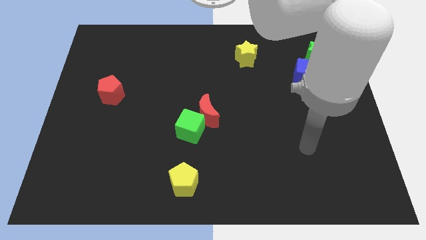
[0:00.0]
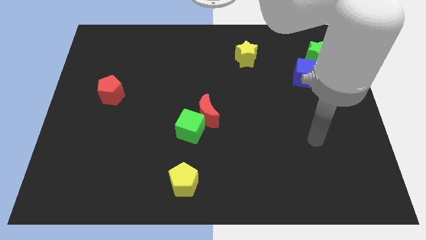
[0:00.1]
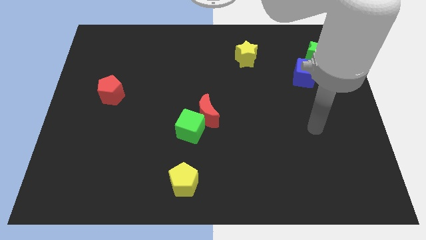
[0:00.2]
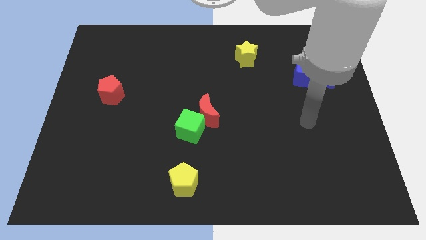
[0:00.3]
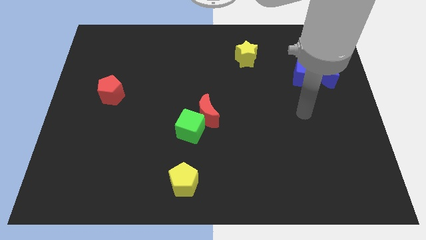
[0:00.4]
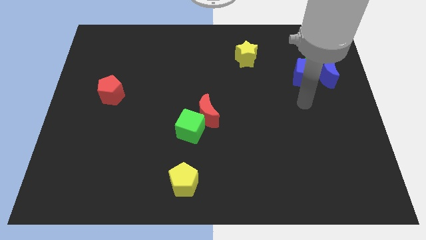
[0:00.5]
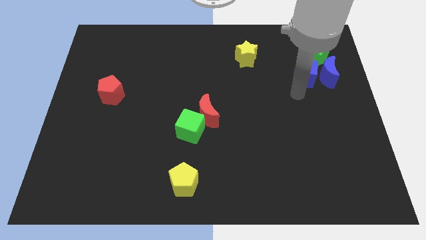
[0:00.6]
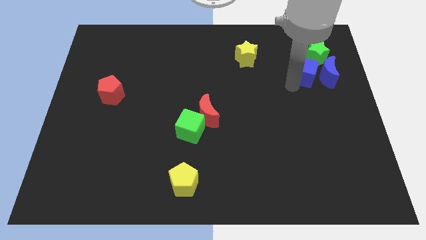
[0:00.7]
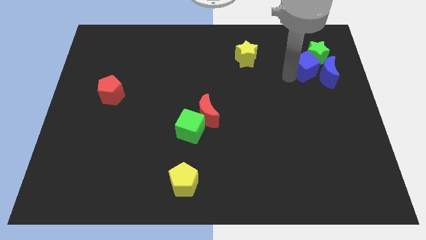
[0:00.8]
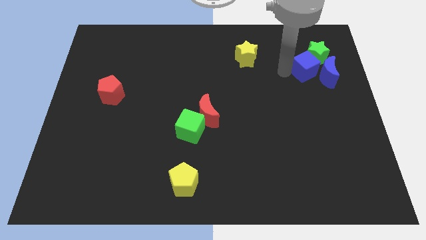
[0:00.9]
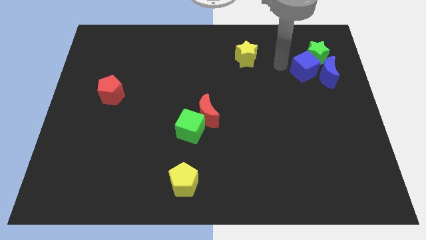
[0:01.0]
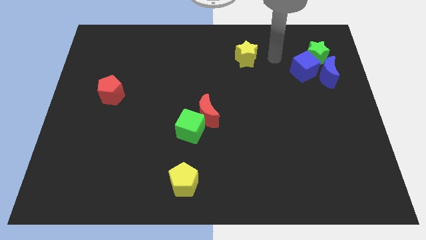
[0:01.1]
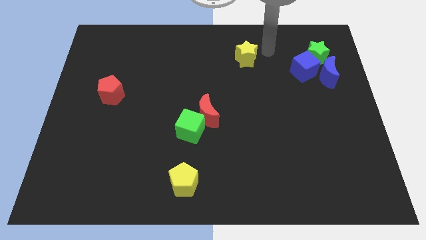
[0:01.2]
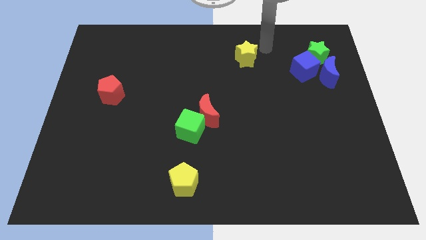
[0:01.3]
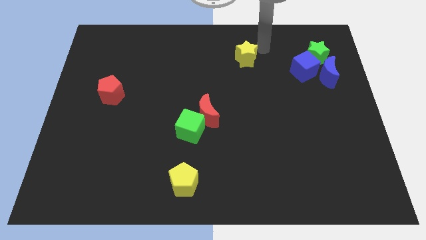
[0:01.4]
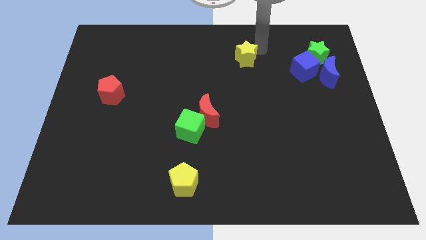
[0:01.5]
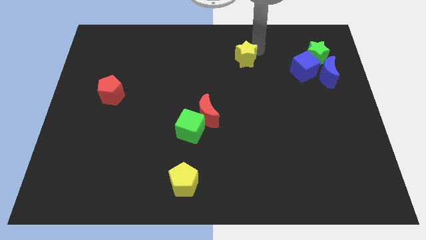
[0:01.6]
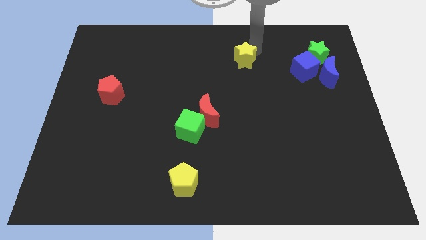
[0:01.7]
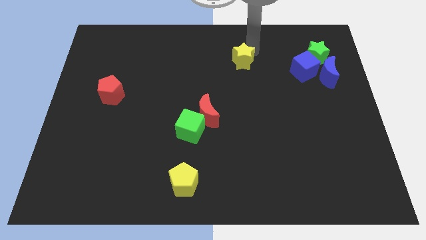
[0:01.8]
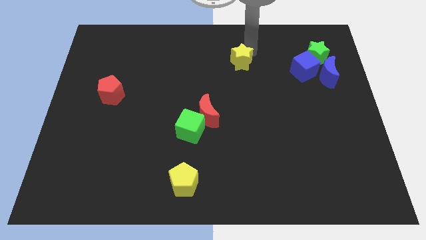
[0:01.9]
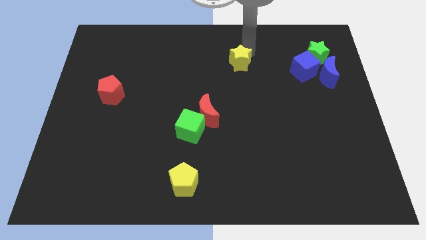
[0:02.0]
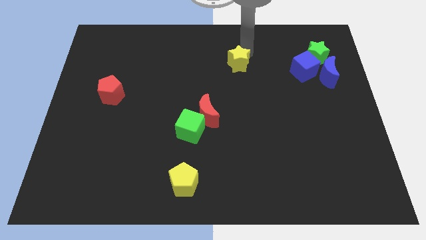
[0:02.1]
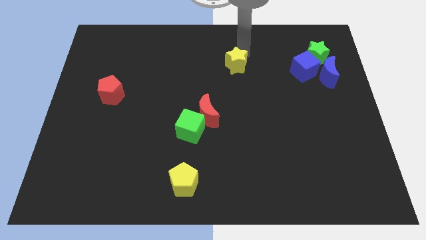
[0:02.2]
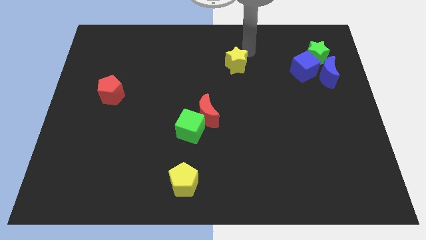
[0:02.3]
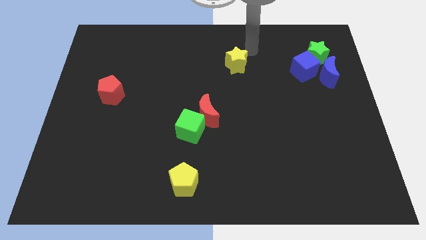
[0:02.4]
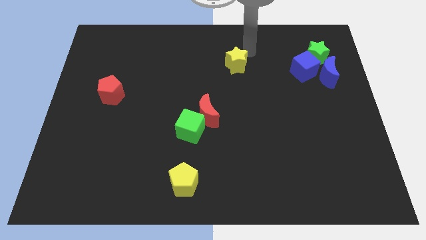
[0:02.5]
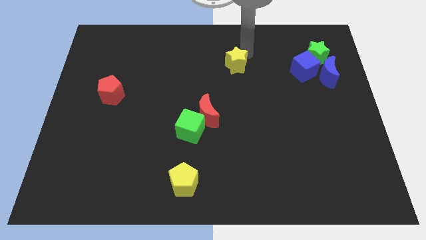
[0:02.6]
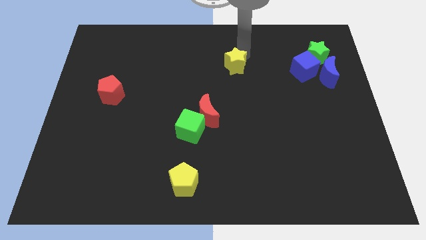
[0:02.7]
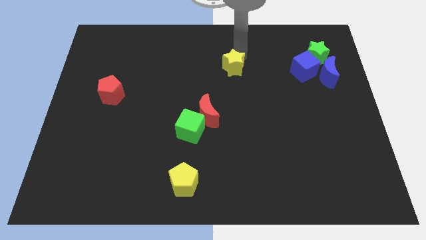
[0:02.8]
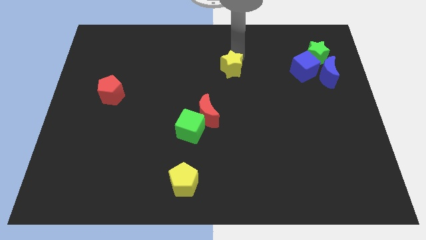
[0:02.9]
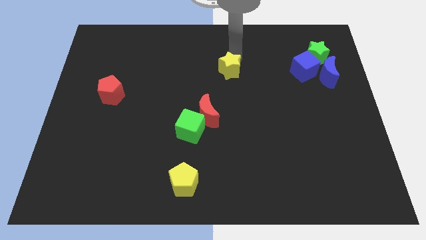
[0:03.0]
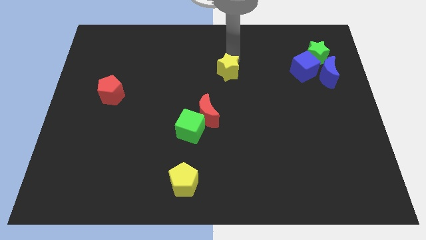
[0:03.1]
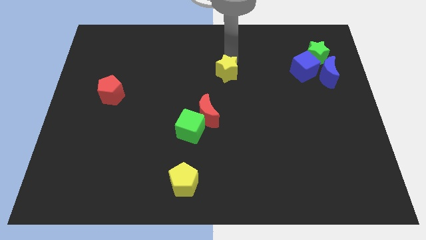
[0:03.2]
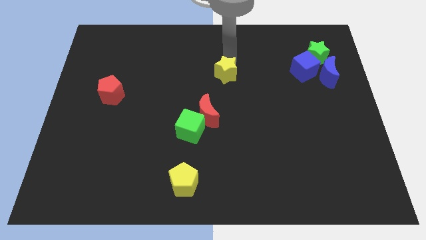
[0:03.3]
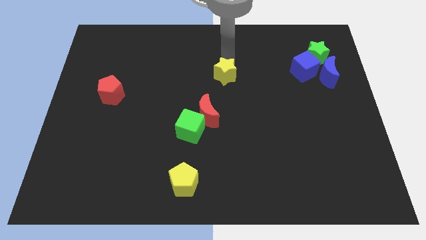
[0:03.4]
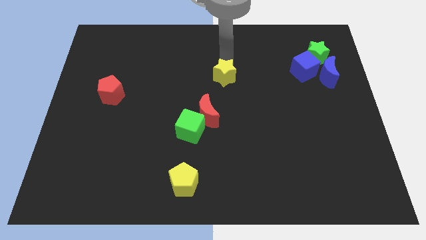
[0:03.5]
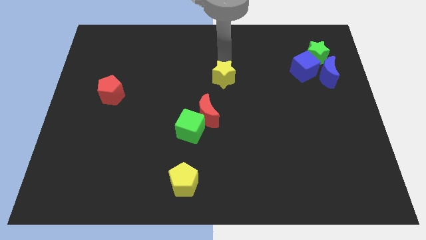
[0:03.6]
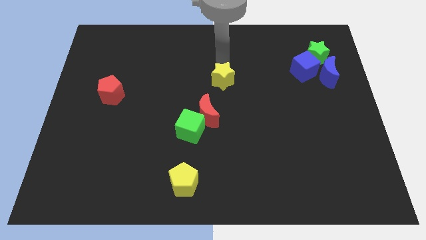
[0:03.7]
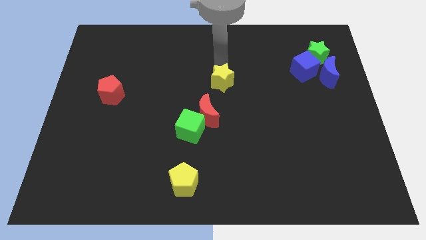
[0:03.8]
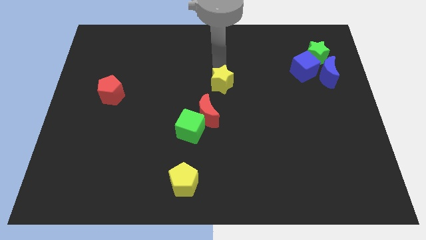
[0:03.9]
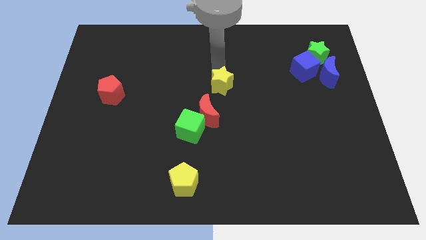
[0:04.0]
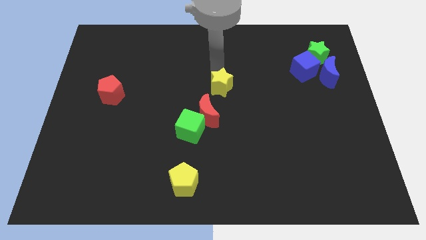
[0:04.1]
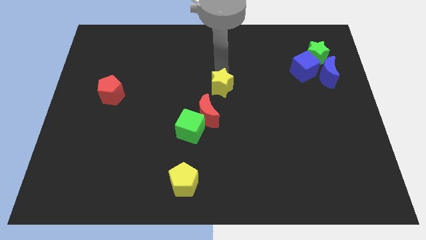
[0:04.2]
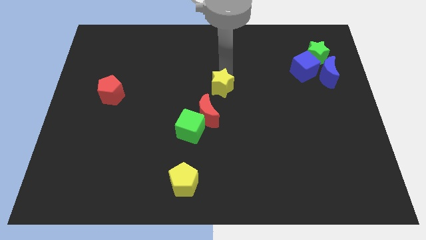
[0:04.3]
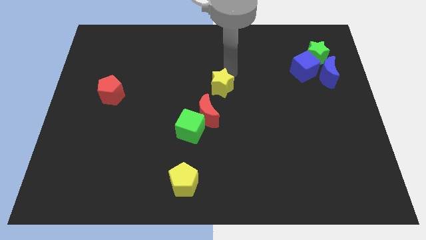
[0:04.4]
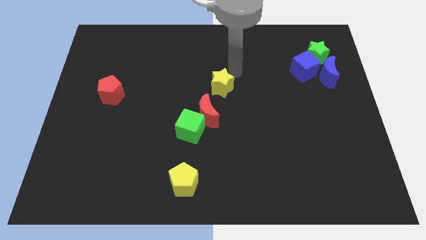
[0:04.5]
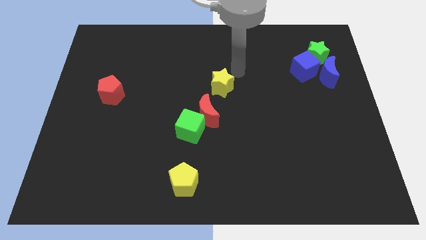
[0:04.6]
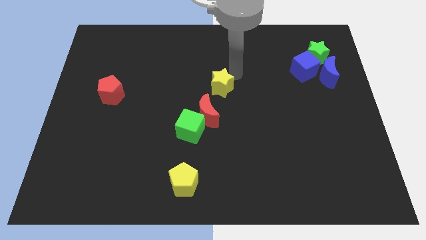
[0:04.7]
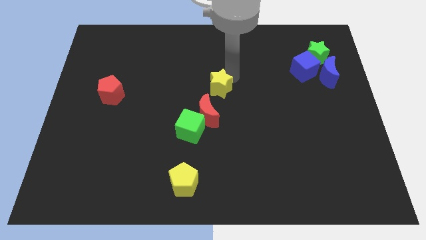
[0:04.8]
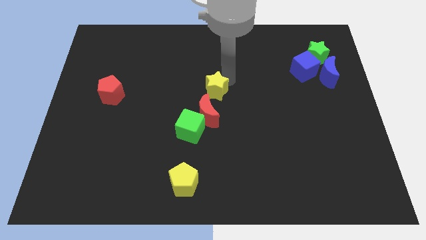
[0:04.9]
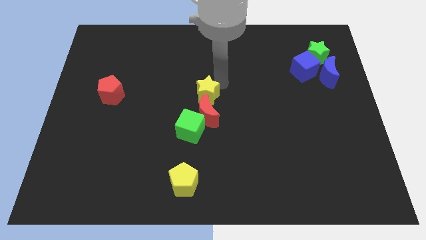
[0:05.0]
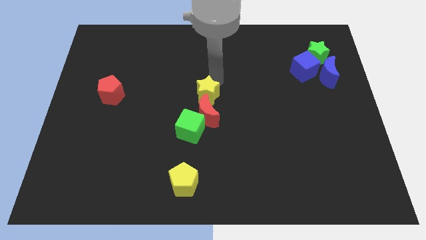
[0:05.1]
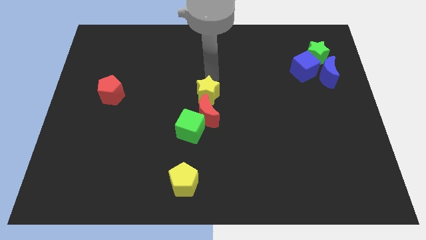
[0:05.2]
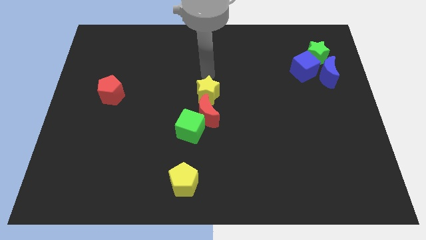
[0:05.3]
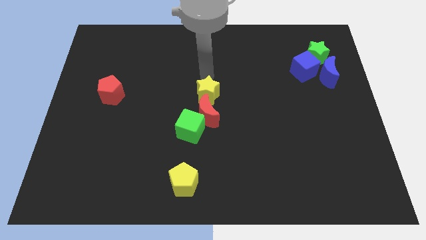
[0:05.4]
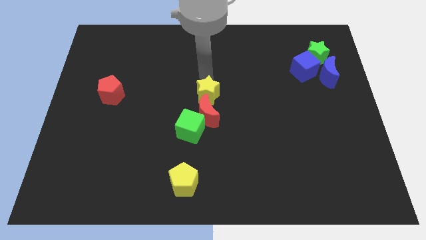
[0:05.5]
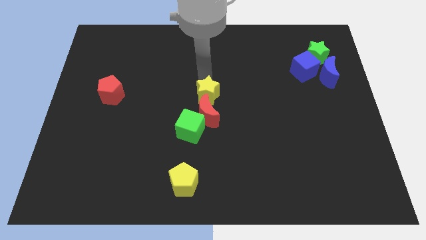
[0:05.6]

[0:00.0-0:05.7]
move the yellow star to the red moon

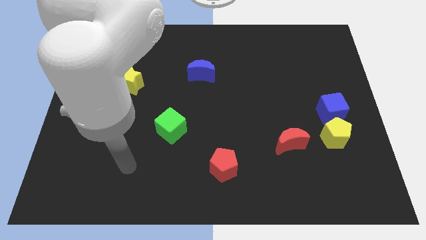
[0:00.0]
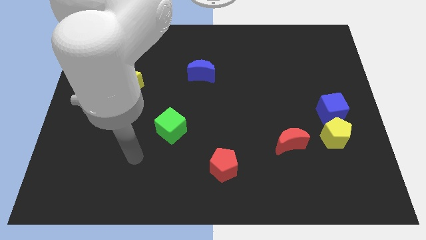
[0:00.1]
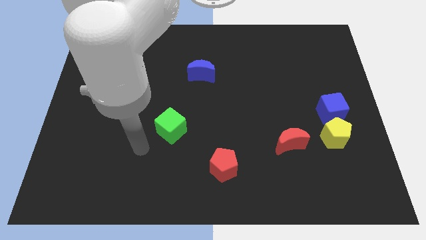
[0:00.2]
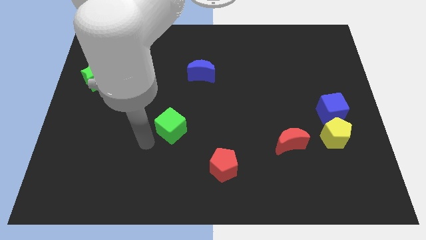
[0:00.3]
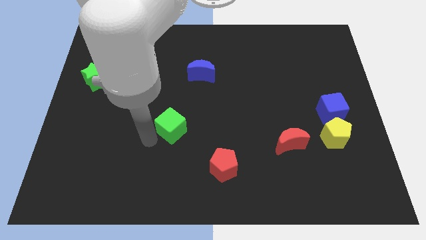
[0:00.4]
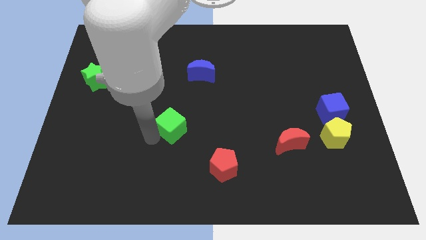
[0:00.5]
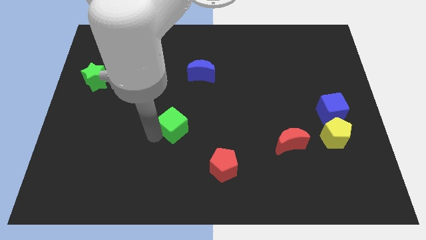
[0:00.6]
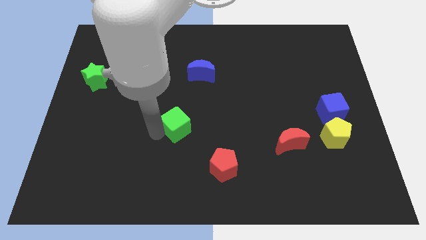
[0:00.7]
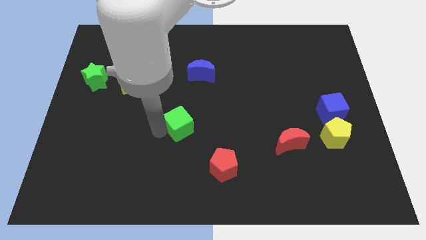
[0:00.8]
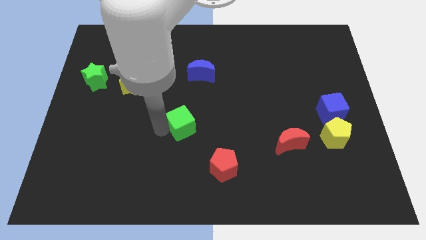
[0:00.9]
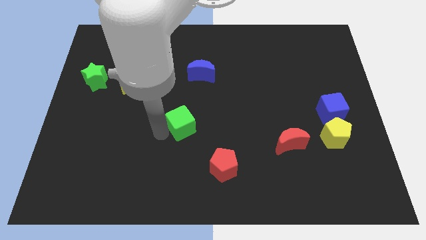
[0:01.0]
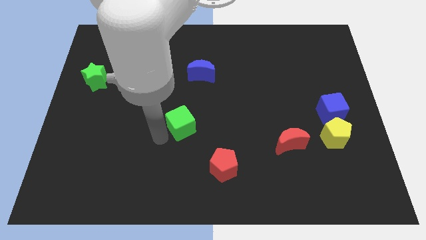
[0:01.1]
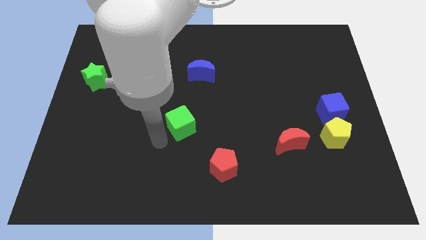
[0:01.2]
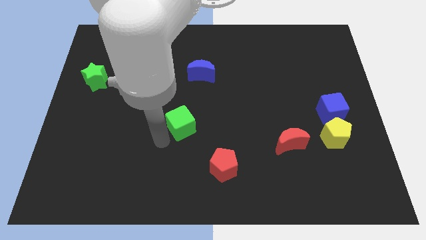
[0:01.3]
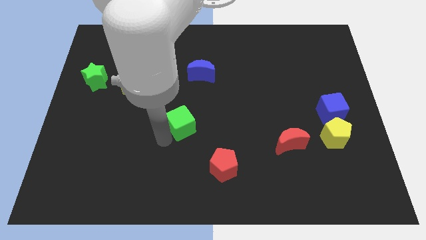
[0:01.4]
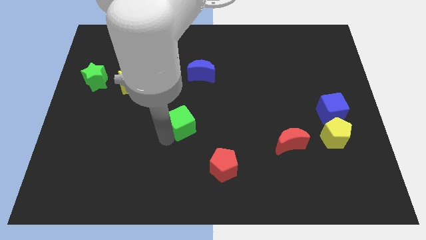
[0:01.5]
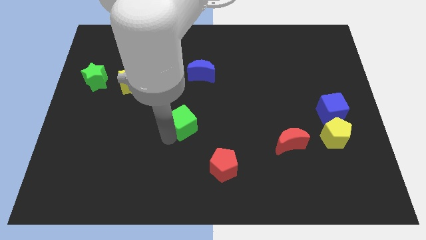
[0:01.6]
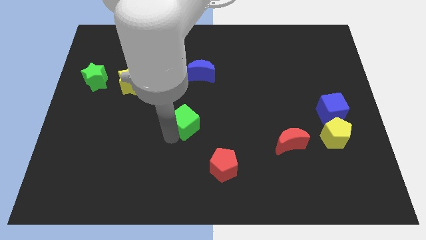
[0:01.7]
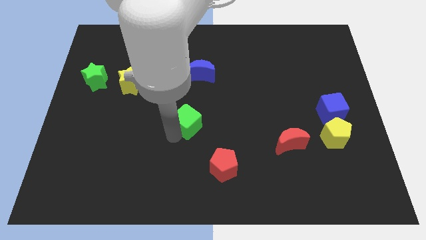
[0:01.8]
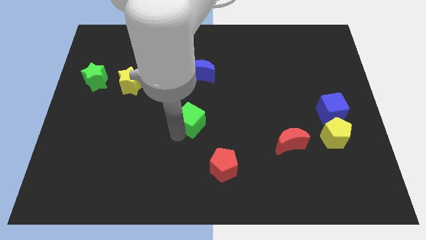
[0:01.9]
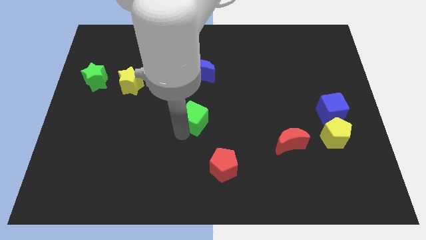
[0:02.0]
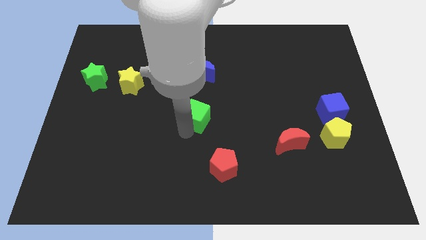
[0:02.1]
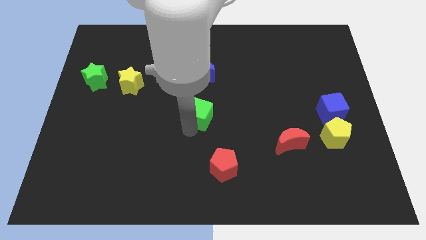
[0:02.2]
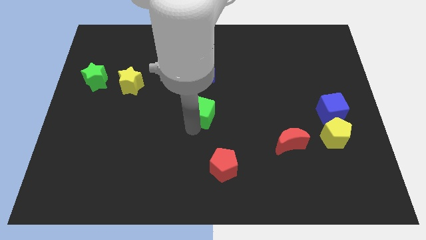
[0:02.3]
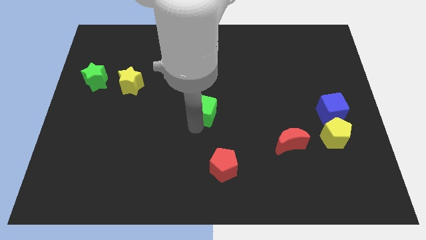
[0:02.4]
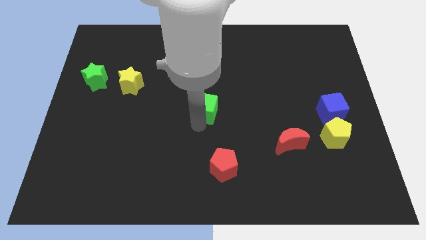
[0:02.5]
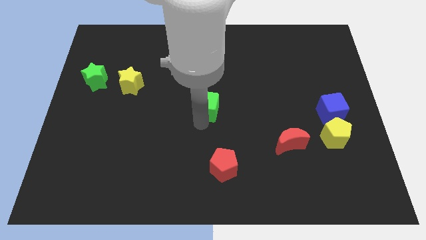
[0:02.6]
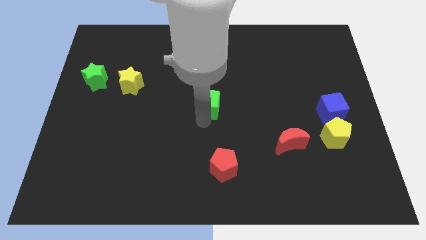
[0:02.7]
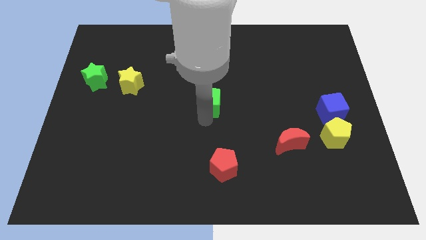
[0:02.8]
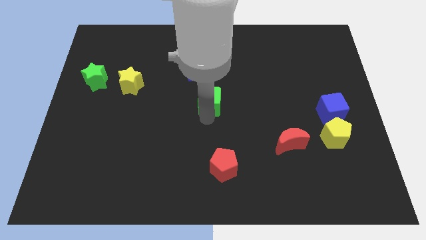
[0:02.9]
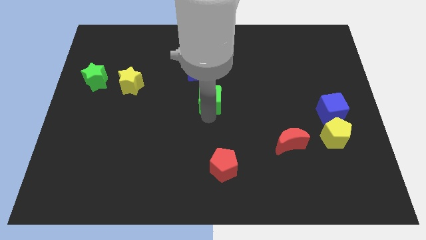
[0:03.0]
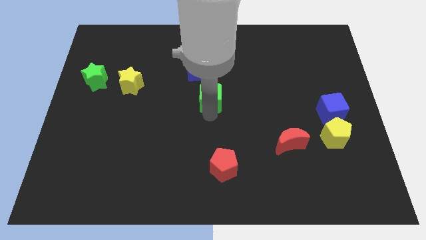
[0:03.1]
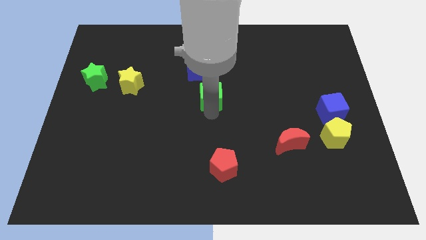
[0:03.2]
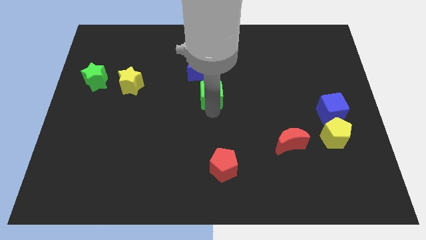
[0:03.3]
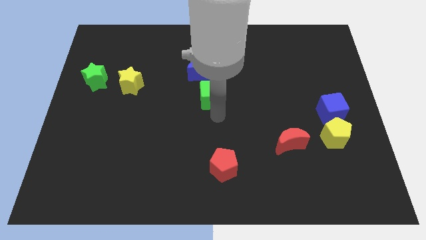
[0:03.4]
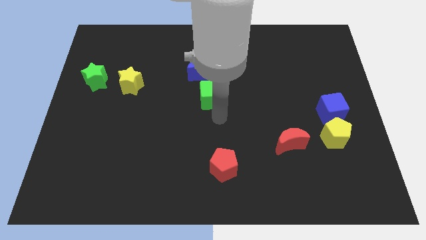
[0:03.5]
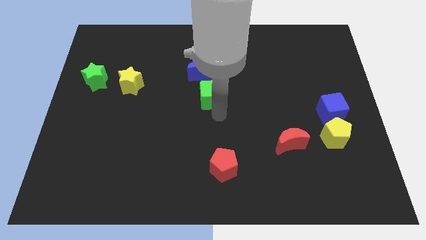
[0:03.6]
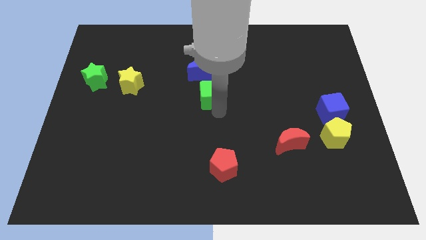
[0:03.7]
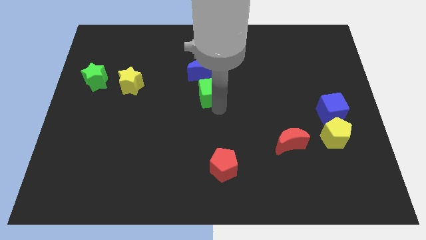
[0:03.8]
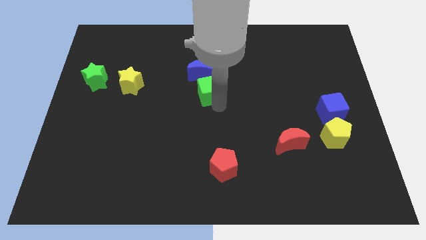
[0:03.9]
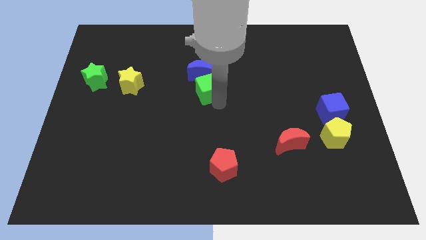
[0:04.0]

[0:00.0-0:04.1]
move the green cube towards the blue moon
